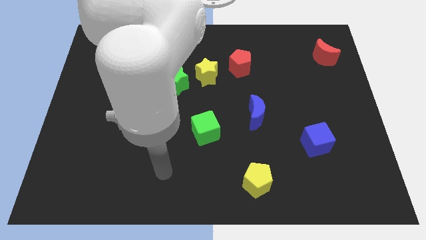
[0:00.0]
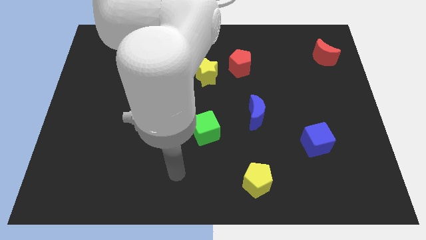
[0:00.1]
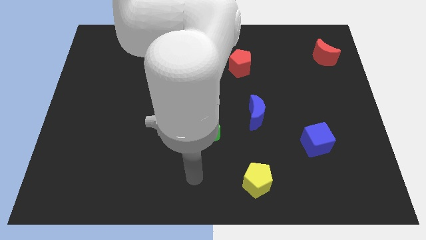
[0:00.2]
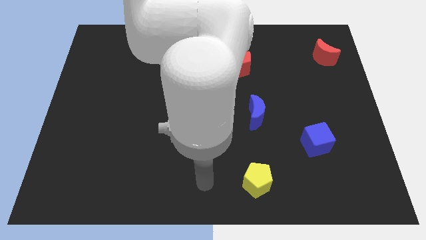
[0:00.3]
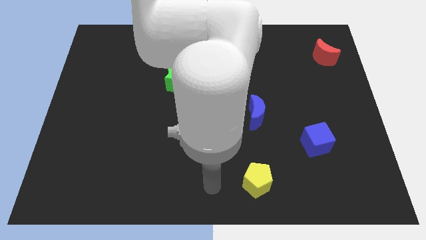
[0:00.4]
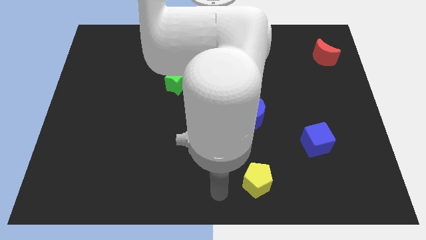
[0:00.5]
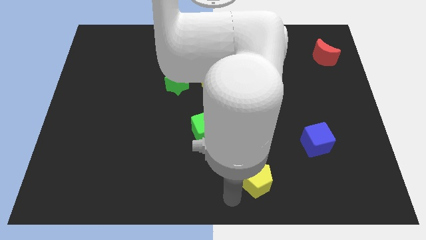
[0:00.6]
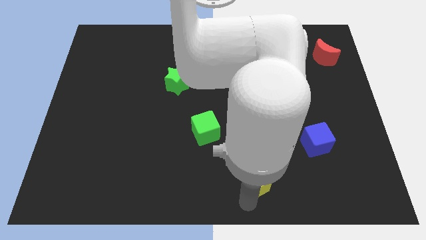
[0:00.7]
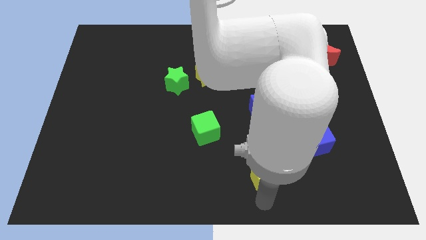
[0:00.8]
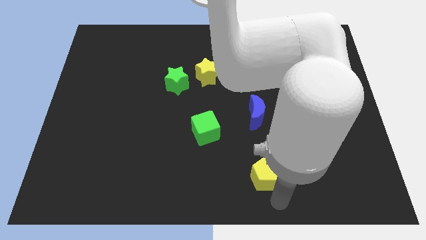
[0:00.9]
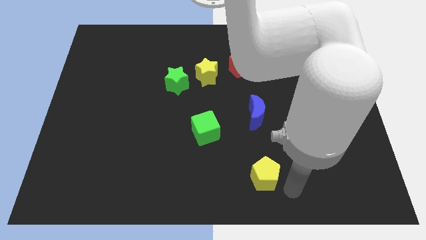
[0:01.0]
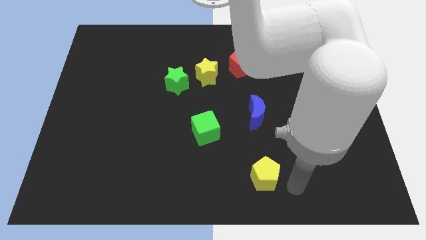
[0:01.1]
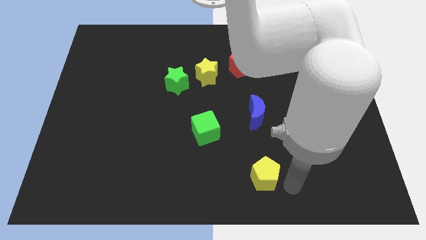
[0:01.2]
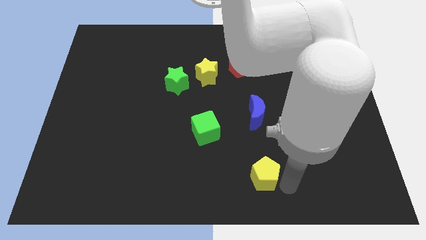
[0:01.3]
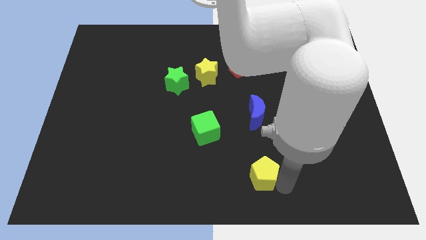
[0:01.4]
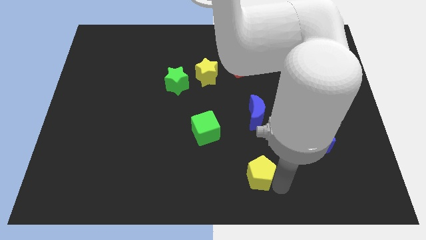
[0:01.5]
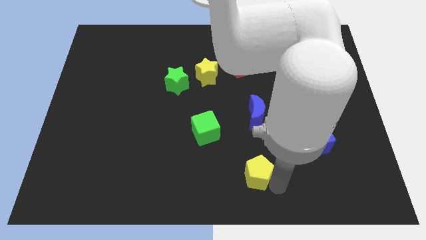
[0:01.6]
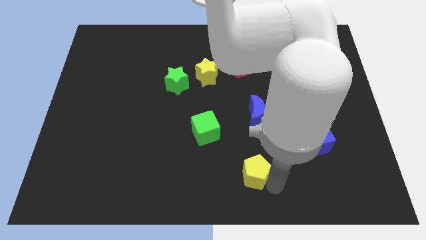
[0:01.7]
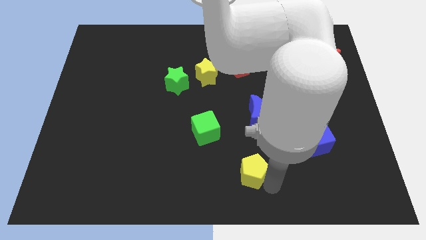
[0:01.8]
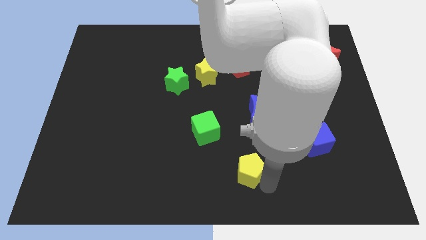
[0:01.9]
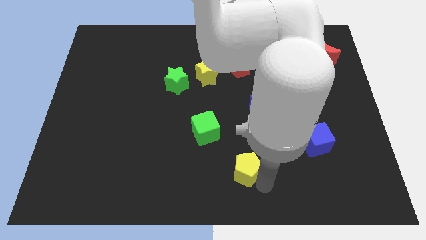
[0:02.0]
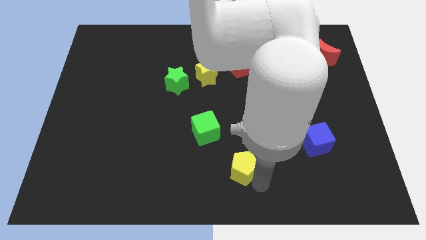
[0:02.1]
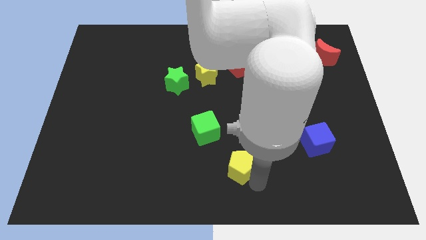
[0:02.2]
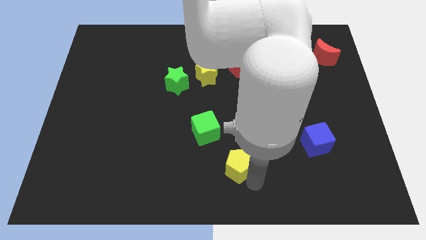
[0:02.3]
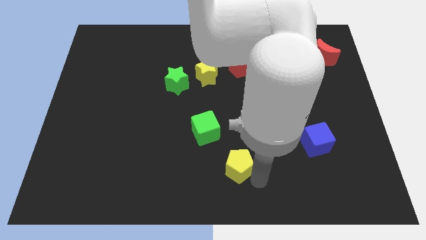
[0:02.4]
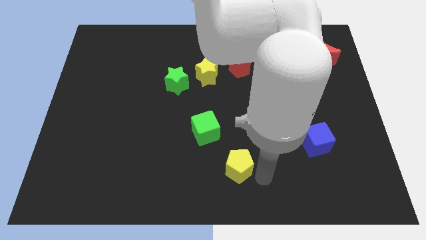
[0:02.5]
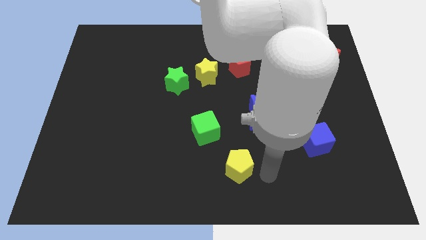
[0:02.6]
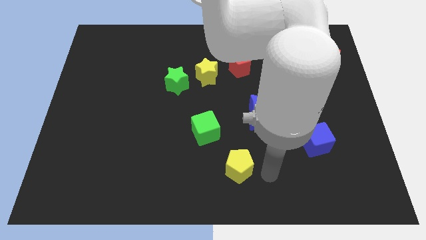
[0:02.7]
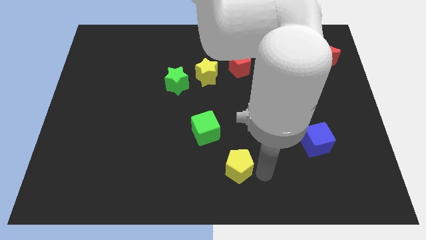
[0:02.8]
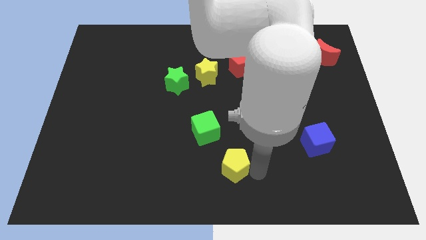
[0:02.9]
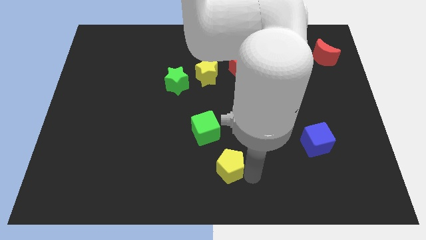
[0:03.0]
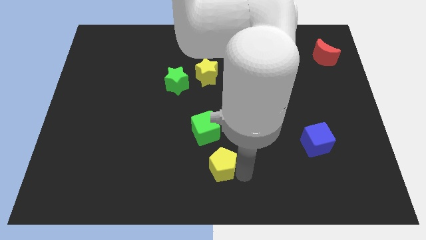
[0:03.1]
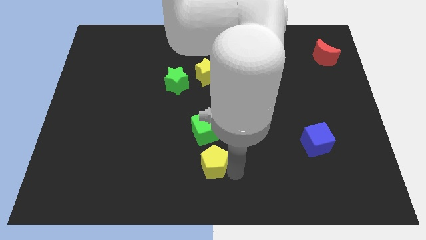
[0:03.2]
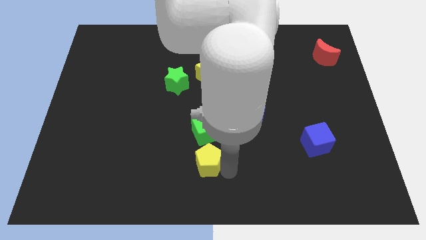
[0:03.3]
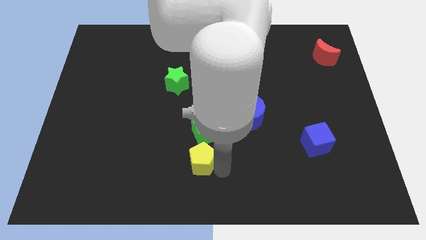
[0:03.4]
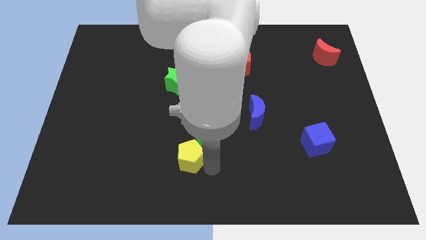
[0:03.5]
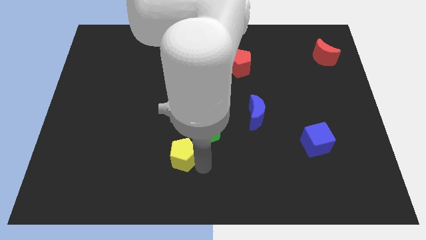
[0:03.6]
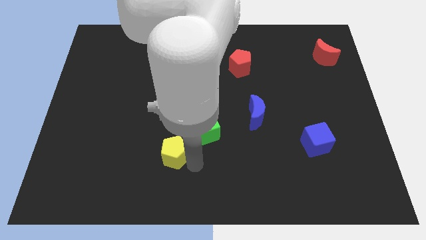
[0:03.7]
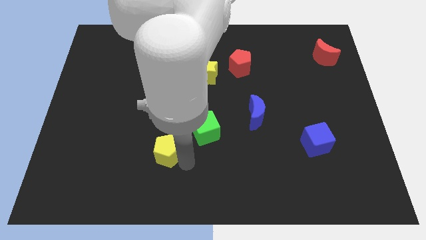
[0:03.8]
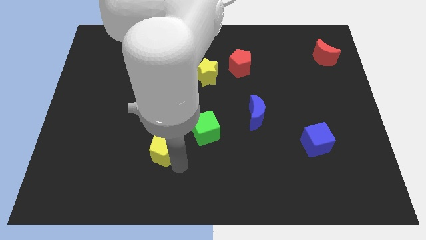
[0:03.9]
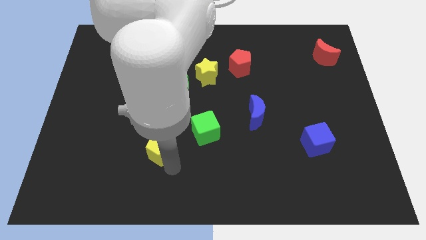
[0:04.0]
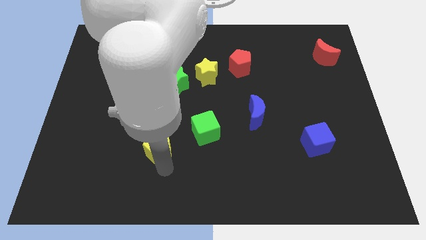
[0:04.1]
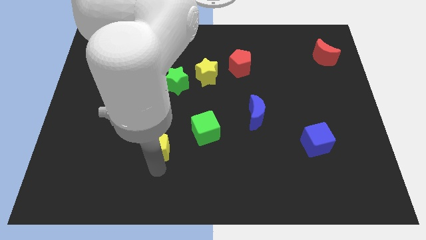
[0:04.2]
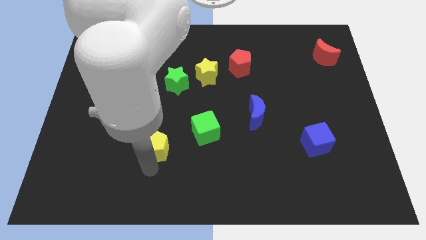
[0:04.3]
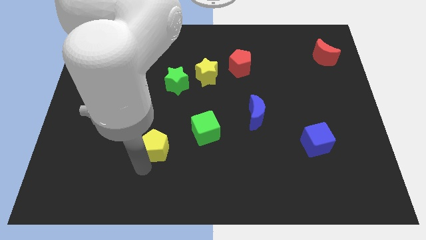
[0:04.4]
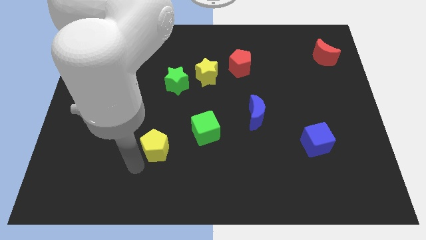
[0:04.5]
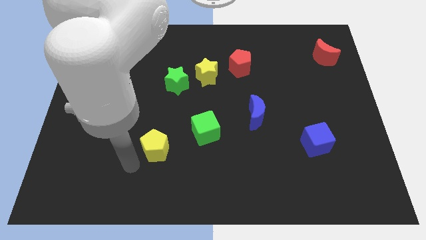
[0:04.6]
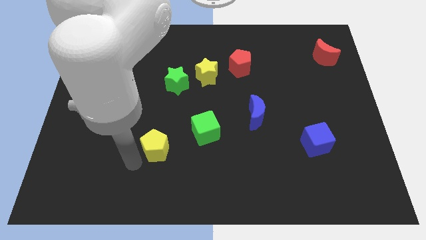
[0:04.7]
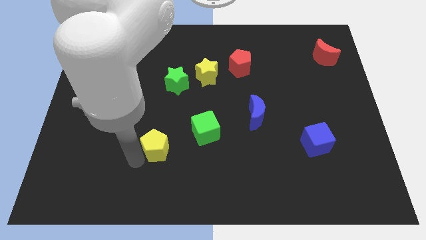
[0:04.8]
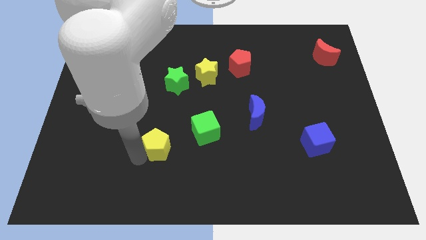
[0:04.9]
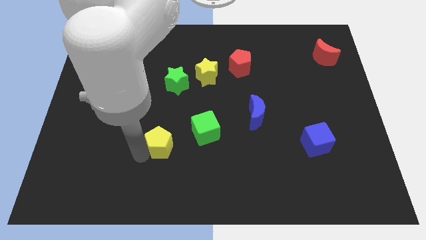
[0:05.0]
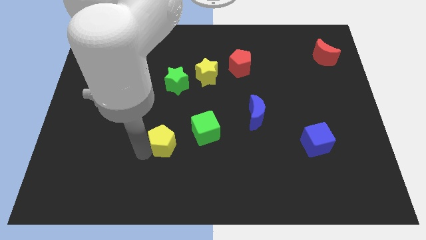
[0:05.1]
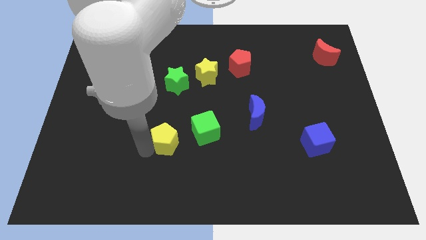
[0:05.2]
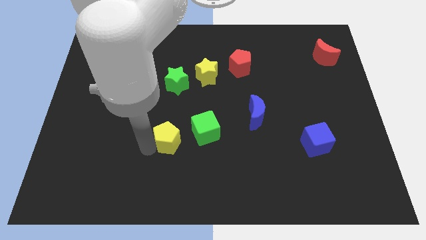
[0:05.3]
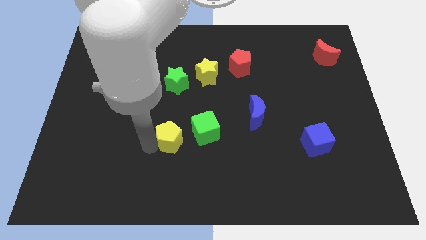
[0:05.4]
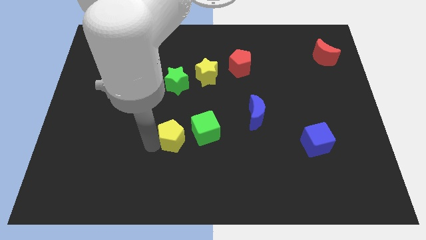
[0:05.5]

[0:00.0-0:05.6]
put the yellow pentagon below the green star

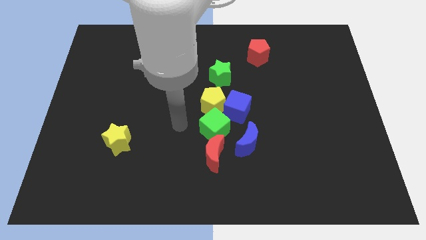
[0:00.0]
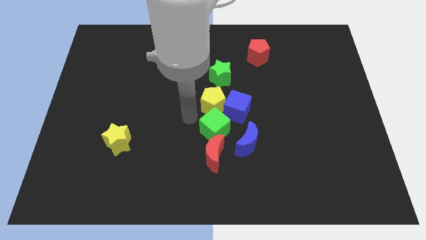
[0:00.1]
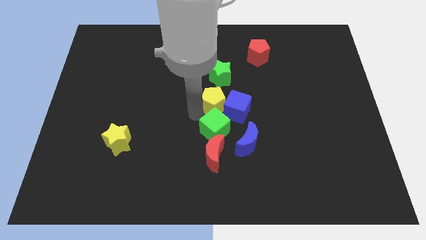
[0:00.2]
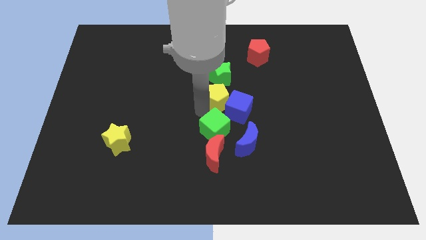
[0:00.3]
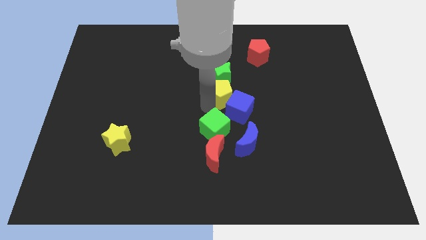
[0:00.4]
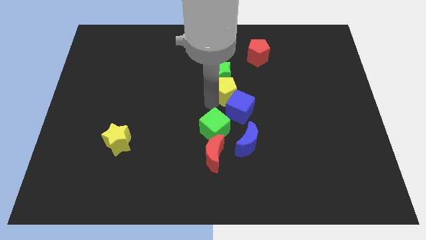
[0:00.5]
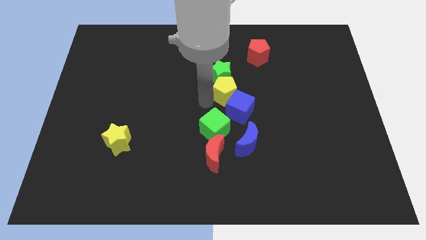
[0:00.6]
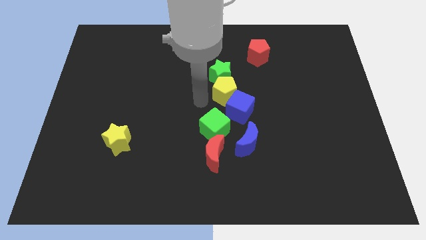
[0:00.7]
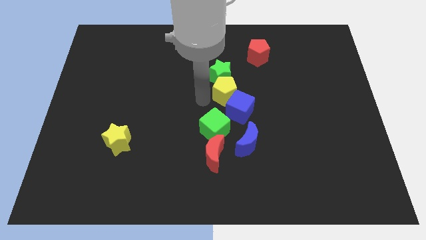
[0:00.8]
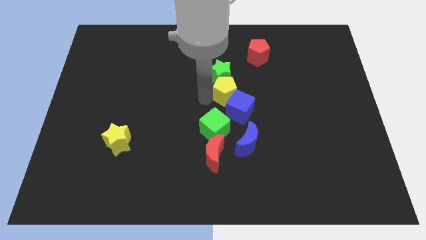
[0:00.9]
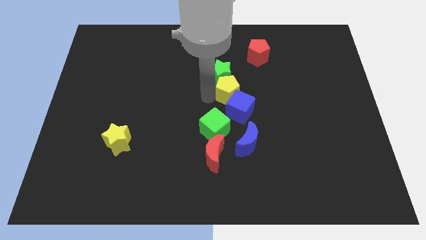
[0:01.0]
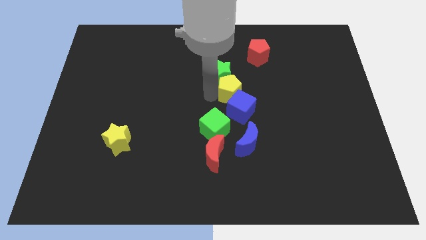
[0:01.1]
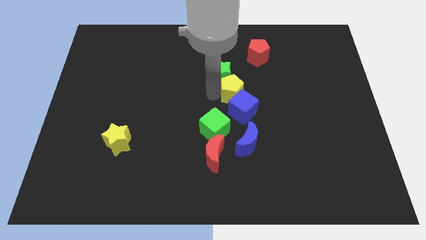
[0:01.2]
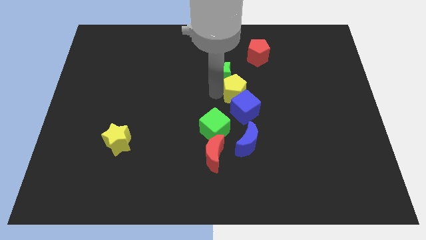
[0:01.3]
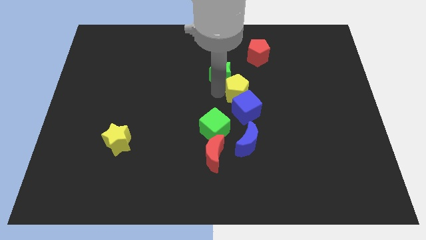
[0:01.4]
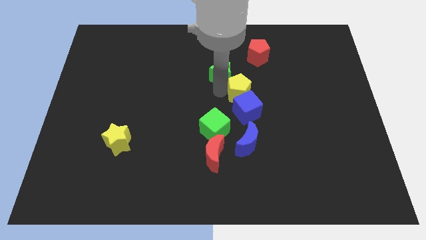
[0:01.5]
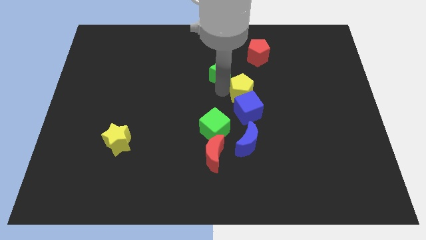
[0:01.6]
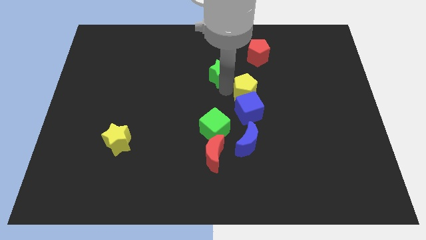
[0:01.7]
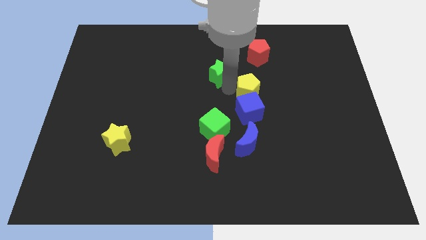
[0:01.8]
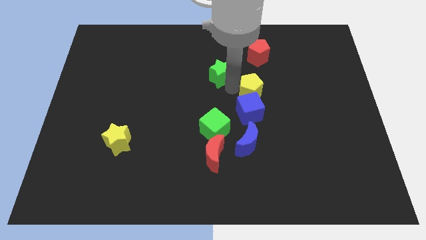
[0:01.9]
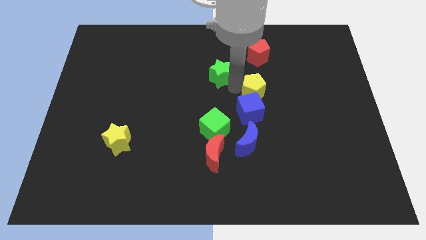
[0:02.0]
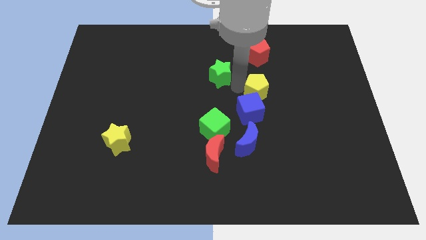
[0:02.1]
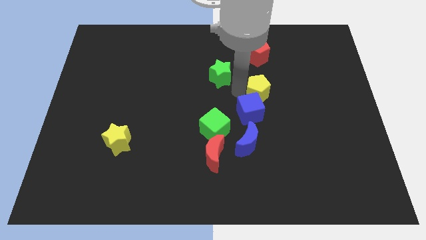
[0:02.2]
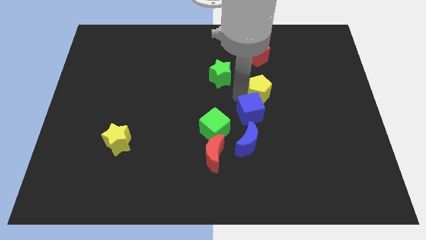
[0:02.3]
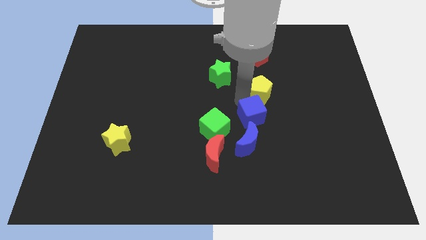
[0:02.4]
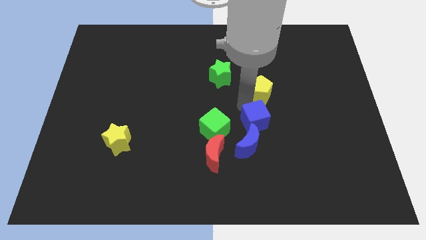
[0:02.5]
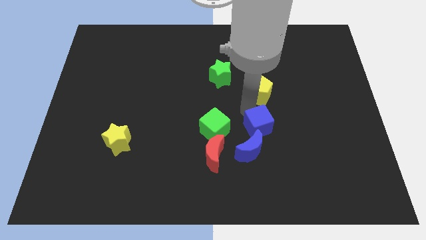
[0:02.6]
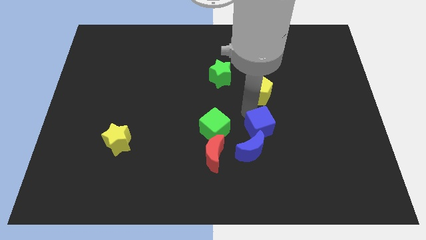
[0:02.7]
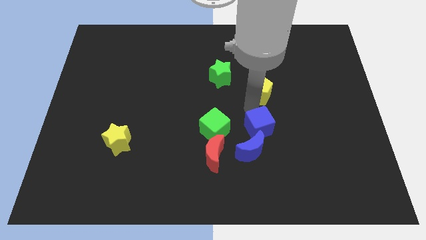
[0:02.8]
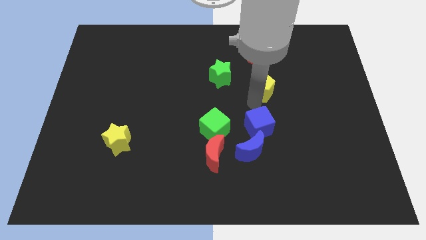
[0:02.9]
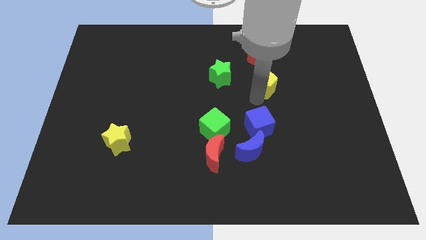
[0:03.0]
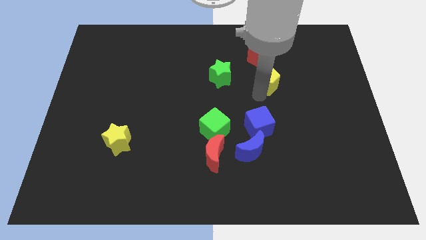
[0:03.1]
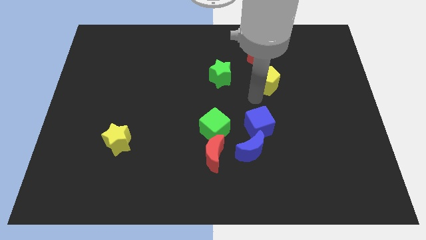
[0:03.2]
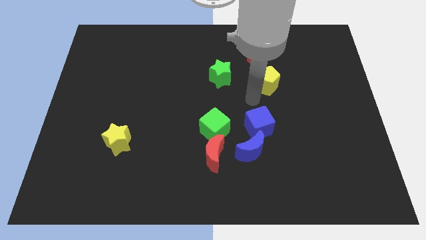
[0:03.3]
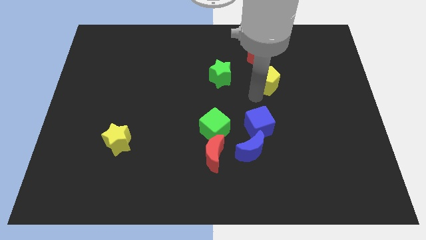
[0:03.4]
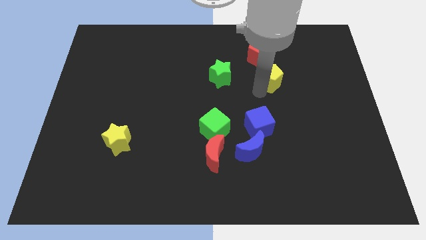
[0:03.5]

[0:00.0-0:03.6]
slide the yellow pentagon to the bottom right of the red pentagon
